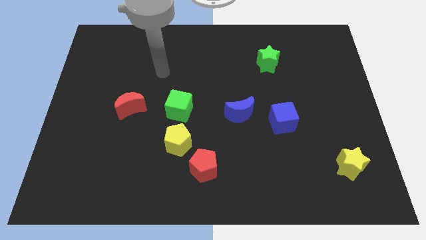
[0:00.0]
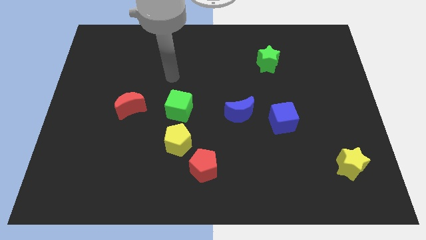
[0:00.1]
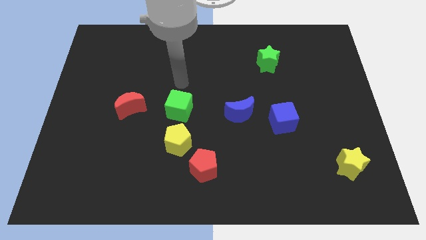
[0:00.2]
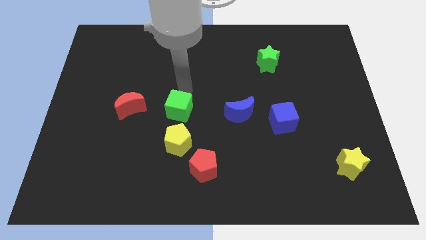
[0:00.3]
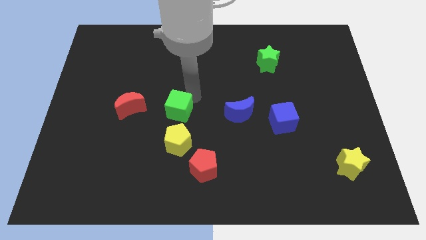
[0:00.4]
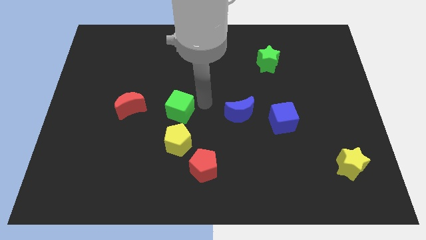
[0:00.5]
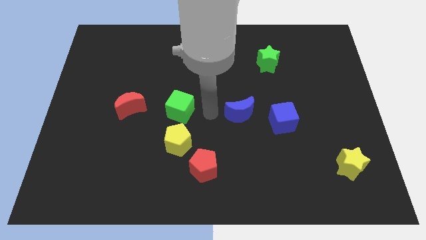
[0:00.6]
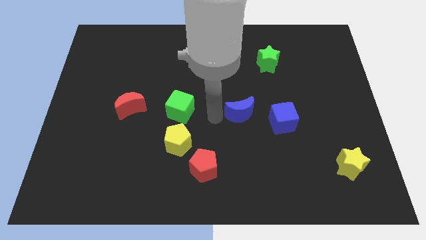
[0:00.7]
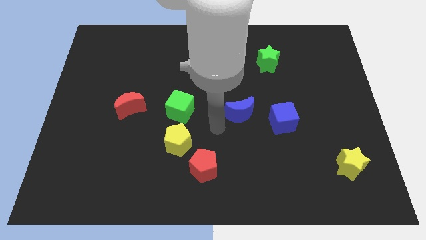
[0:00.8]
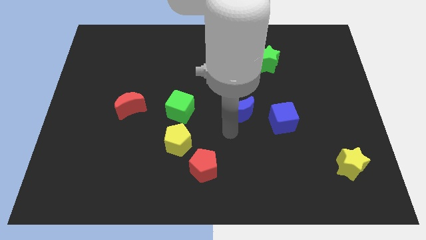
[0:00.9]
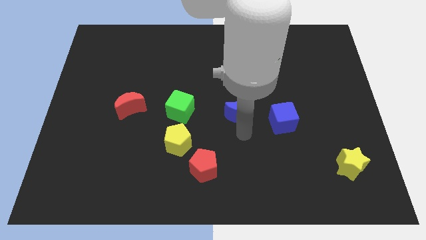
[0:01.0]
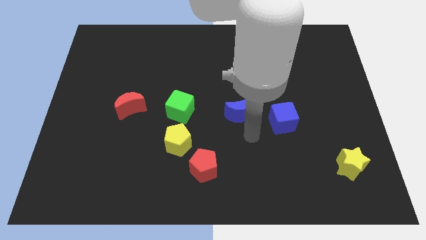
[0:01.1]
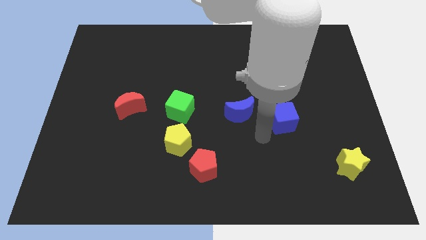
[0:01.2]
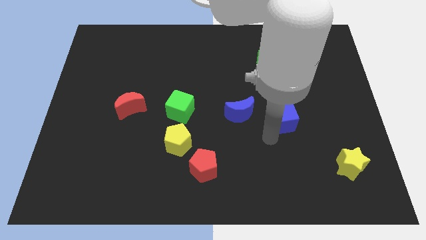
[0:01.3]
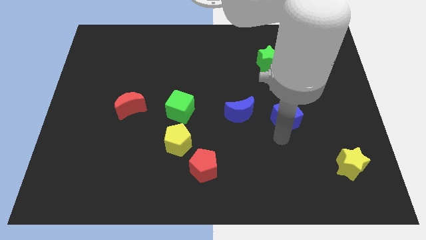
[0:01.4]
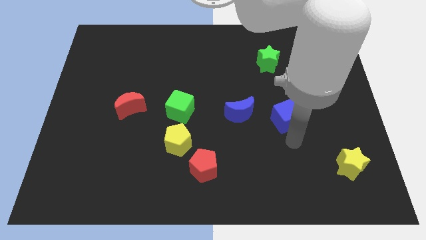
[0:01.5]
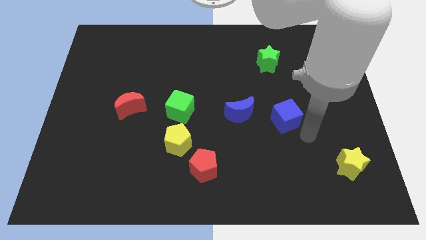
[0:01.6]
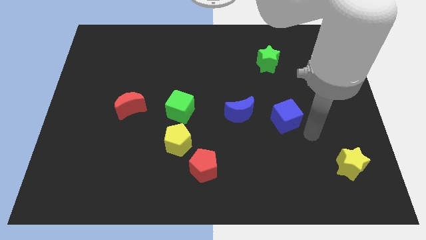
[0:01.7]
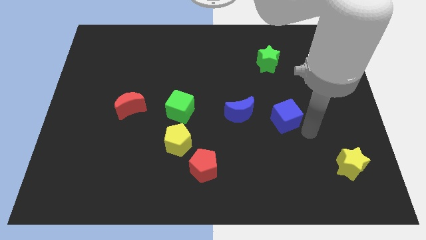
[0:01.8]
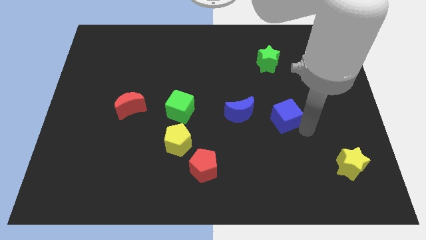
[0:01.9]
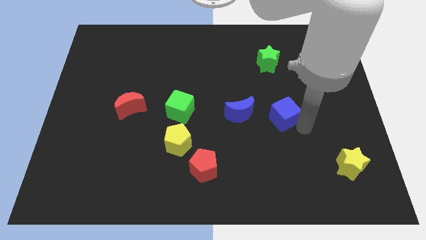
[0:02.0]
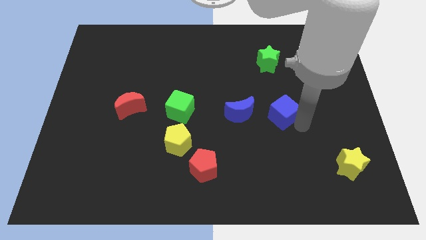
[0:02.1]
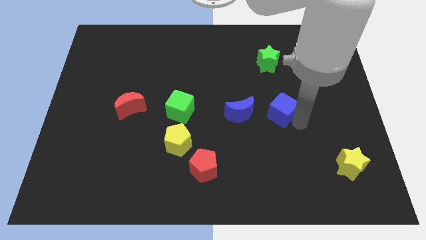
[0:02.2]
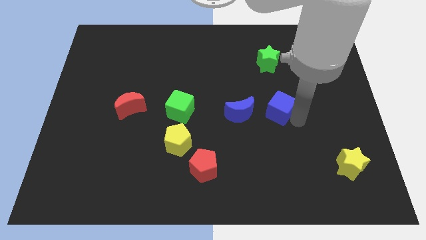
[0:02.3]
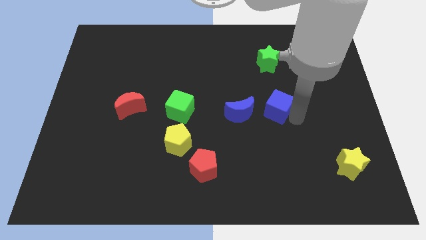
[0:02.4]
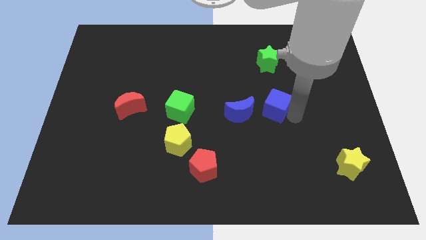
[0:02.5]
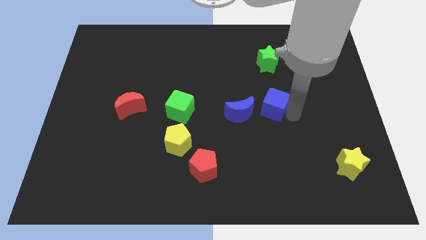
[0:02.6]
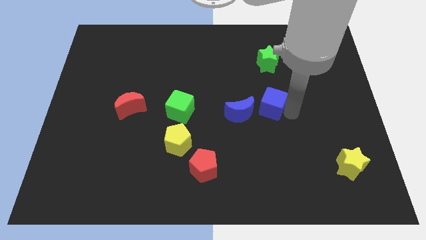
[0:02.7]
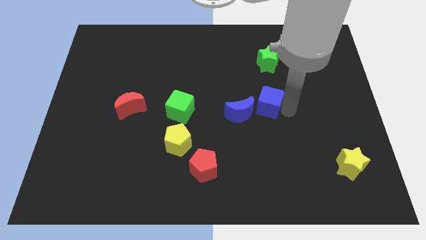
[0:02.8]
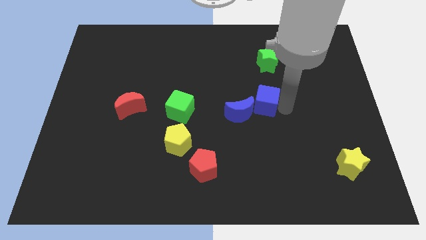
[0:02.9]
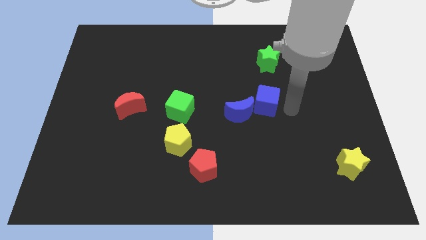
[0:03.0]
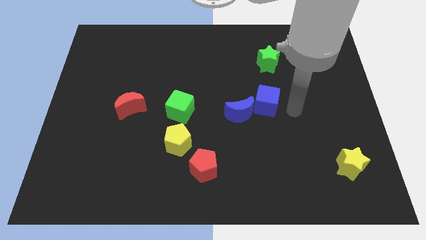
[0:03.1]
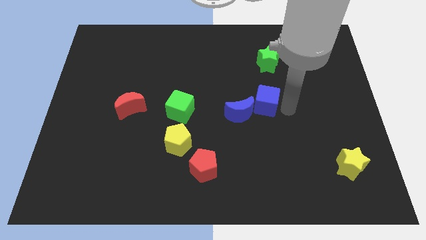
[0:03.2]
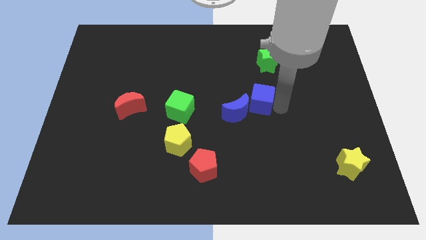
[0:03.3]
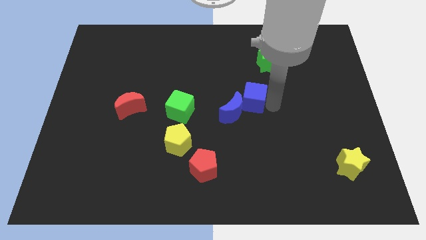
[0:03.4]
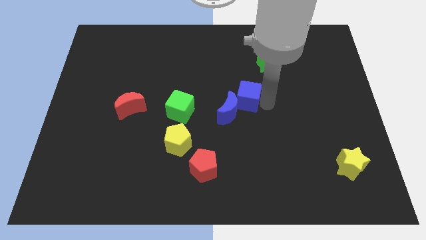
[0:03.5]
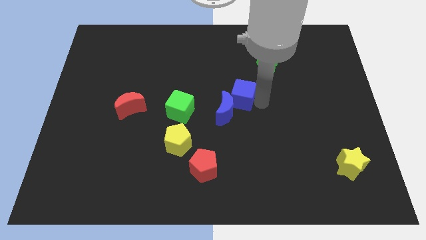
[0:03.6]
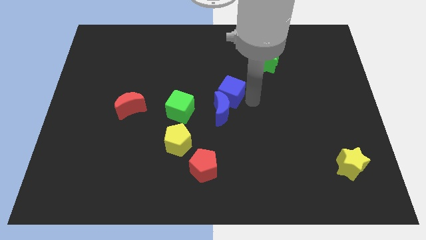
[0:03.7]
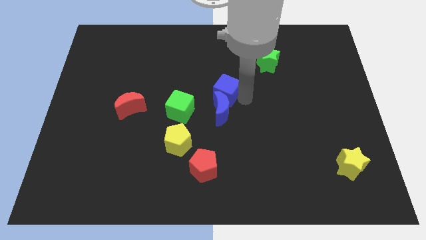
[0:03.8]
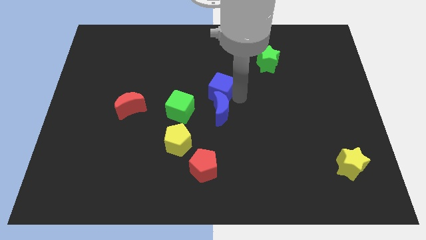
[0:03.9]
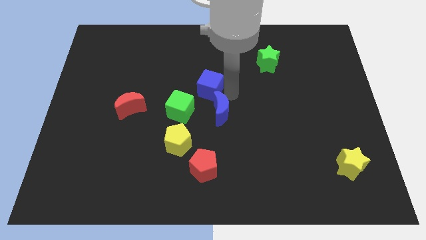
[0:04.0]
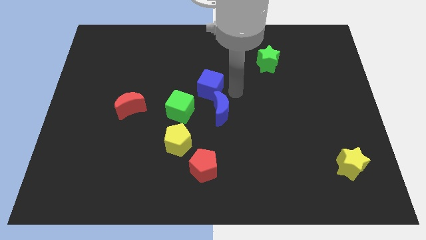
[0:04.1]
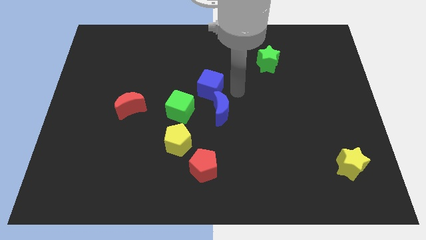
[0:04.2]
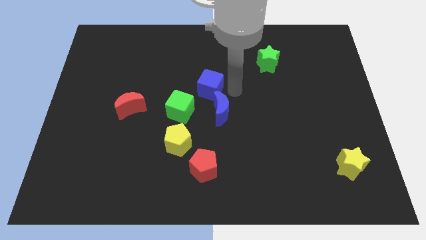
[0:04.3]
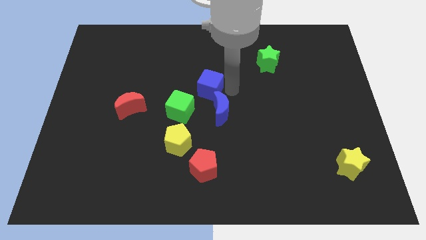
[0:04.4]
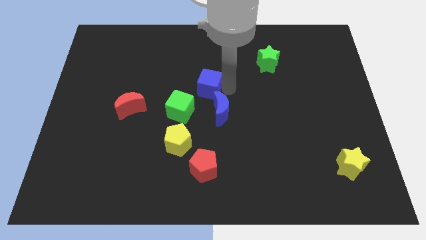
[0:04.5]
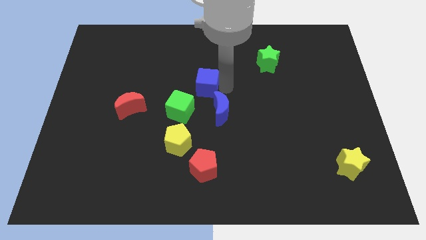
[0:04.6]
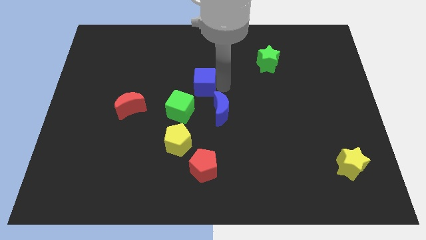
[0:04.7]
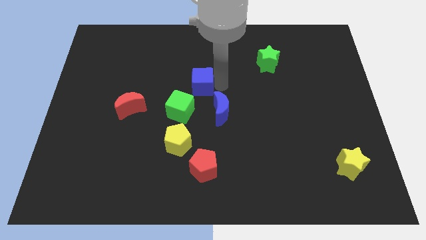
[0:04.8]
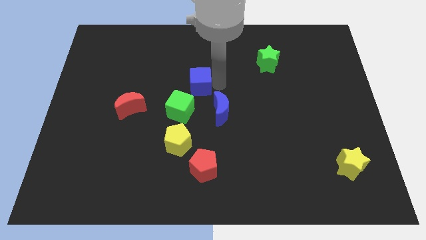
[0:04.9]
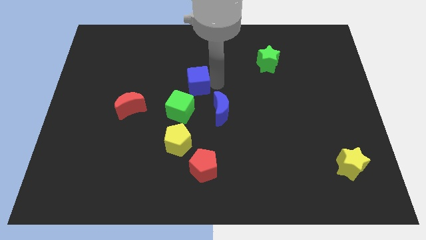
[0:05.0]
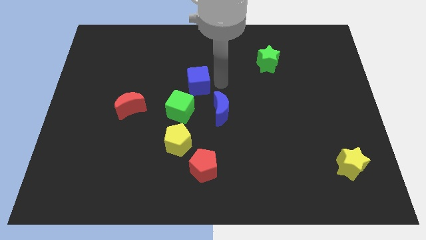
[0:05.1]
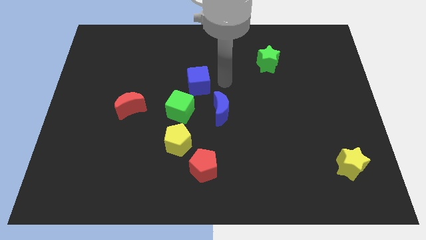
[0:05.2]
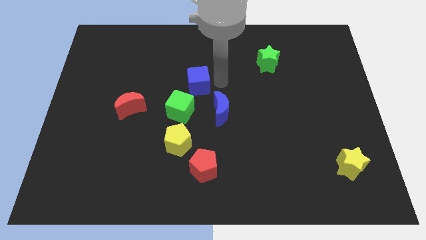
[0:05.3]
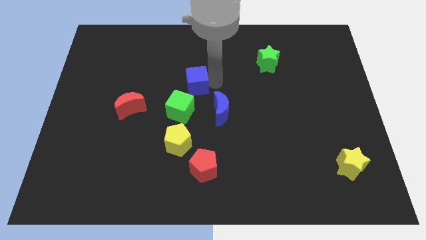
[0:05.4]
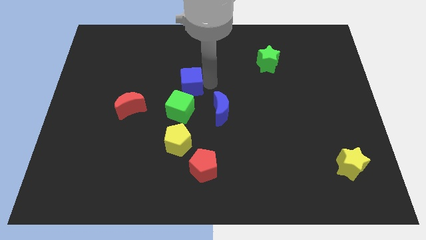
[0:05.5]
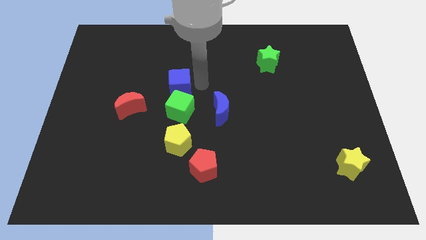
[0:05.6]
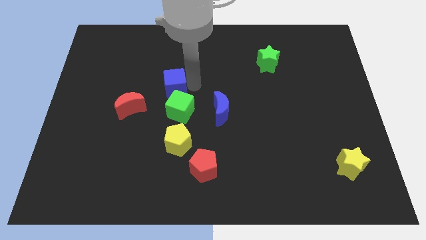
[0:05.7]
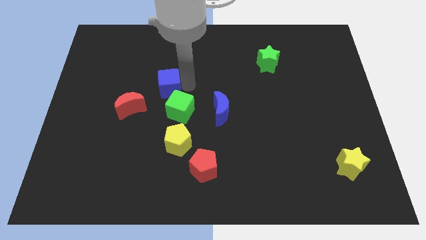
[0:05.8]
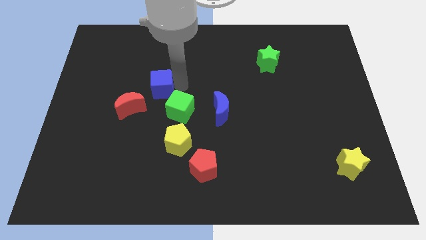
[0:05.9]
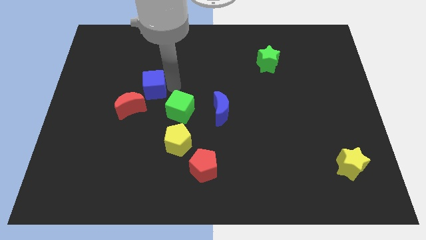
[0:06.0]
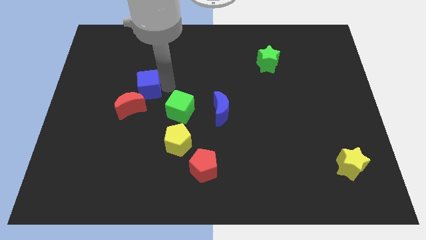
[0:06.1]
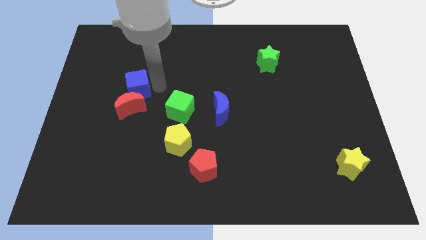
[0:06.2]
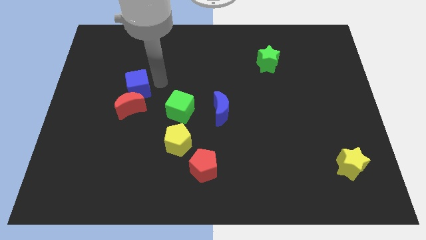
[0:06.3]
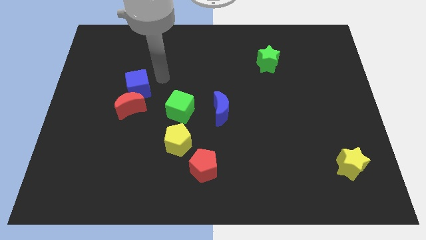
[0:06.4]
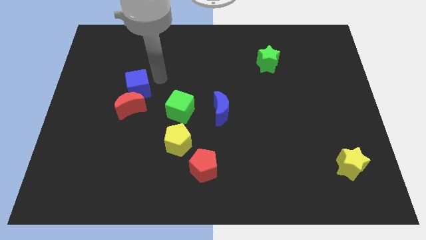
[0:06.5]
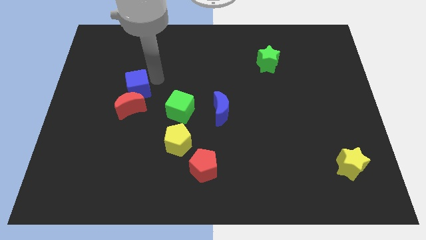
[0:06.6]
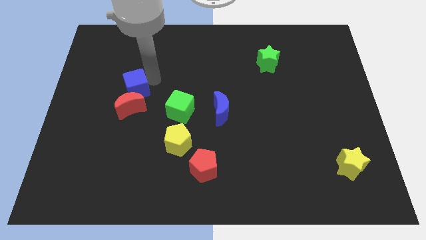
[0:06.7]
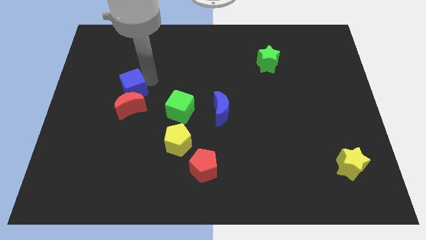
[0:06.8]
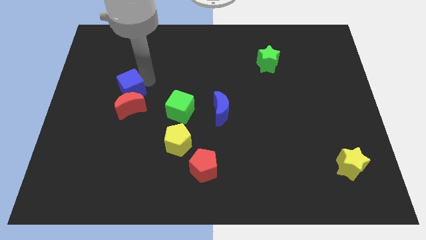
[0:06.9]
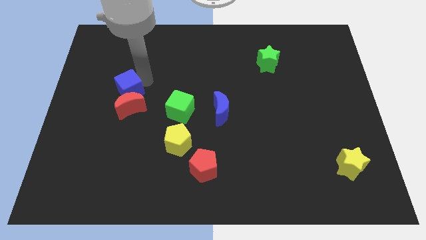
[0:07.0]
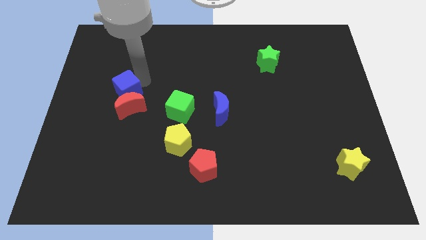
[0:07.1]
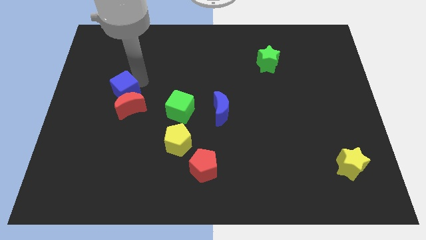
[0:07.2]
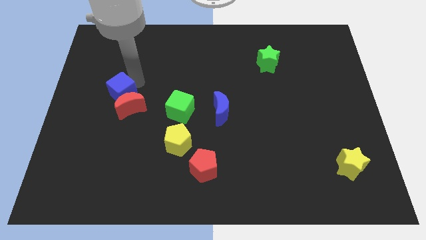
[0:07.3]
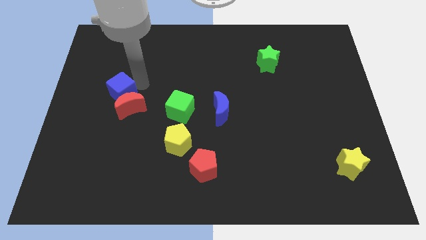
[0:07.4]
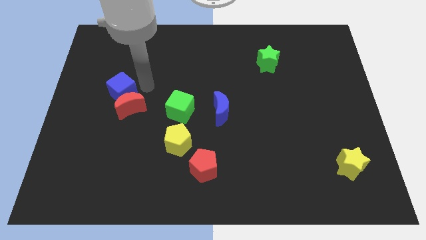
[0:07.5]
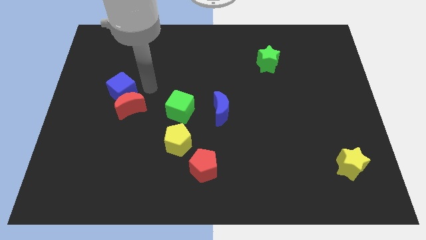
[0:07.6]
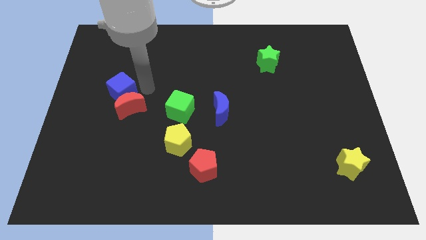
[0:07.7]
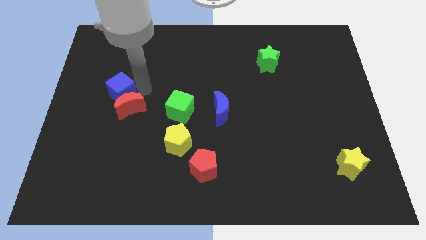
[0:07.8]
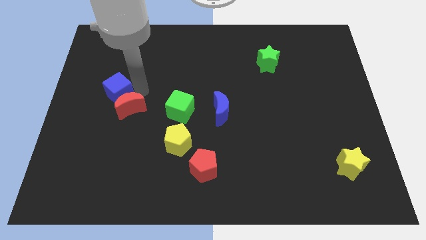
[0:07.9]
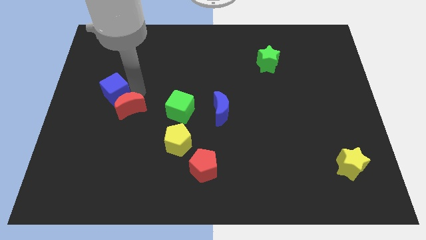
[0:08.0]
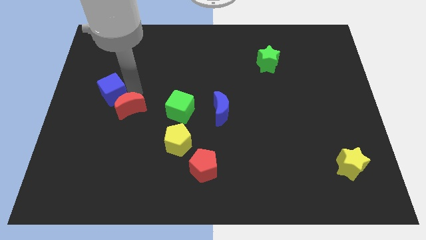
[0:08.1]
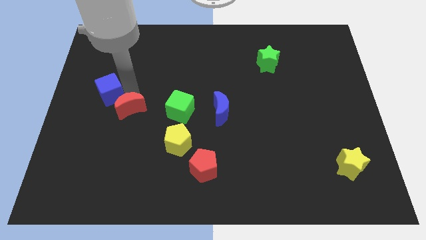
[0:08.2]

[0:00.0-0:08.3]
move the blue cube to the center left
